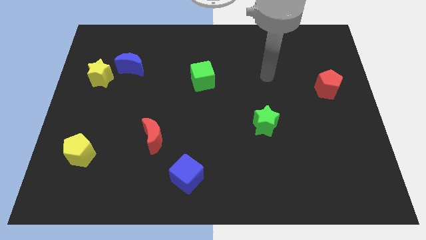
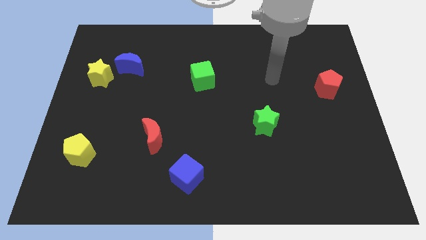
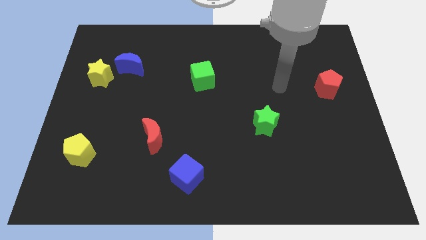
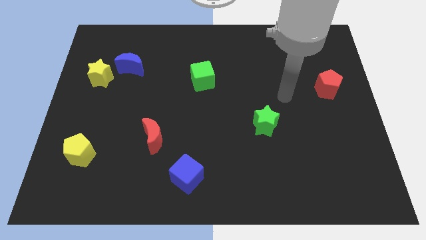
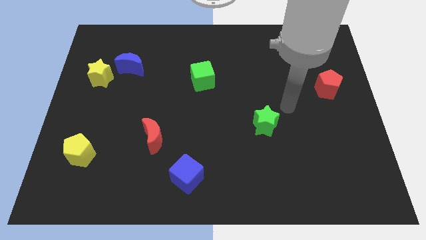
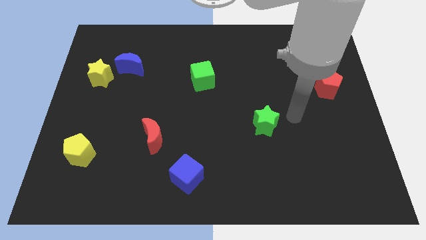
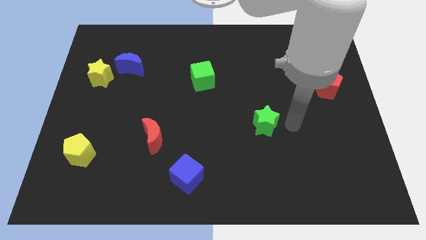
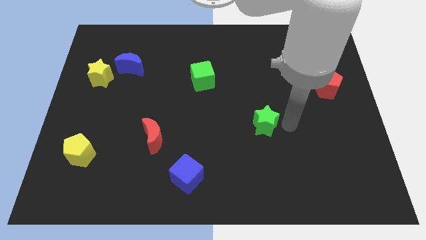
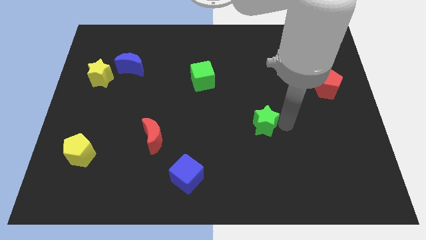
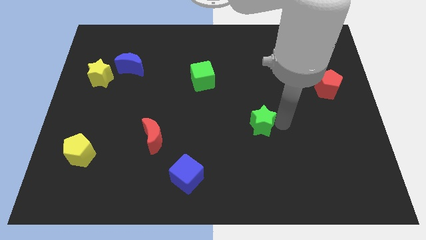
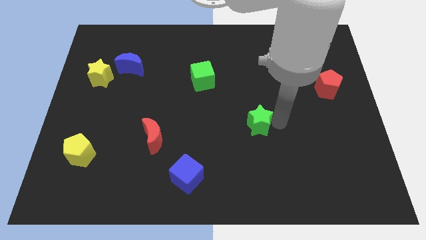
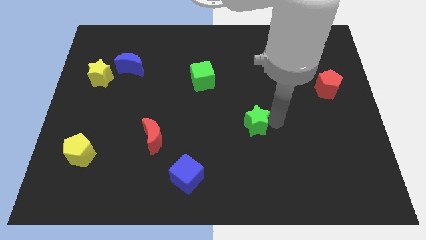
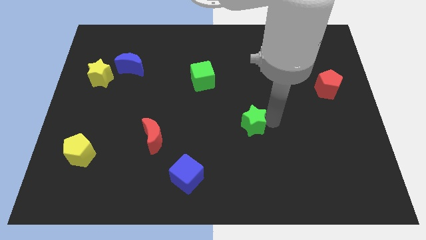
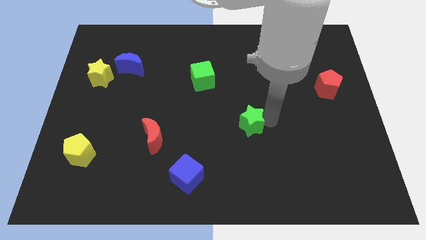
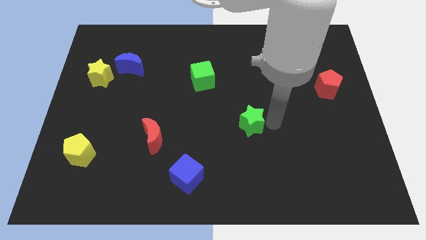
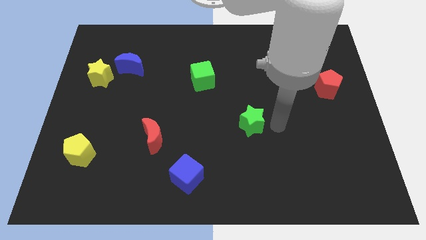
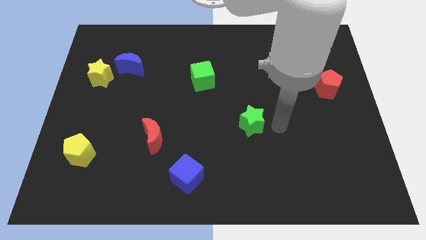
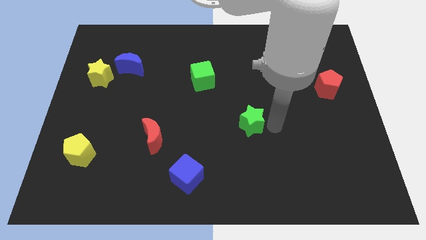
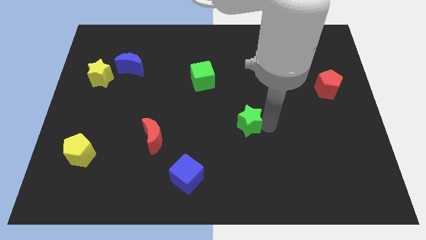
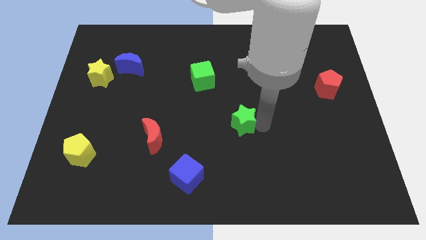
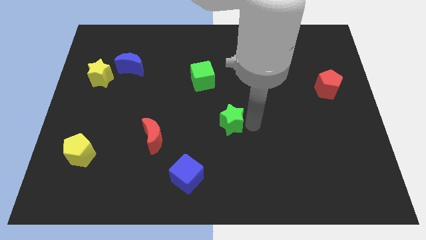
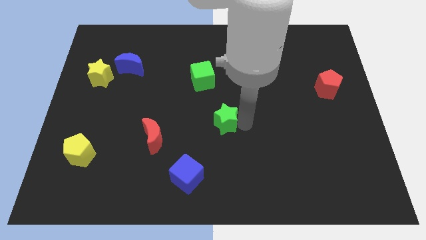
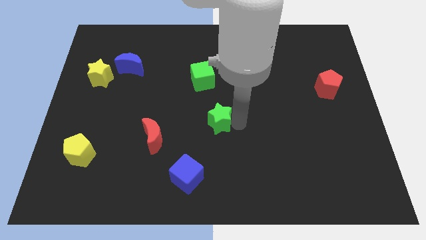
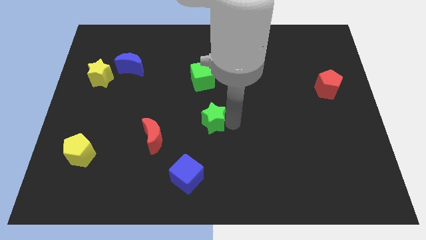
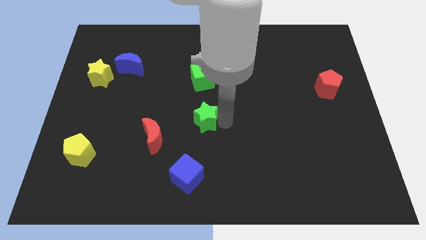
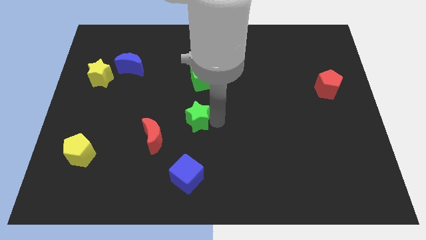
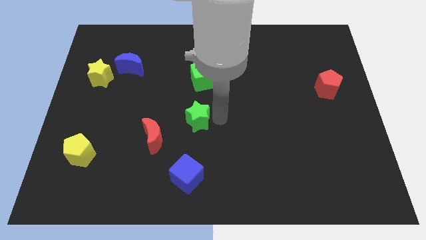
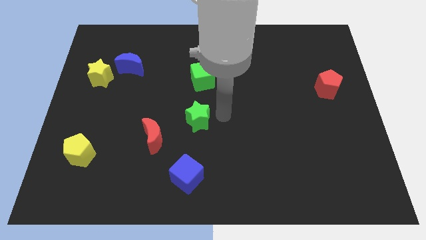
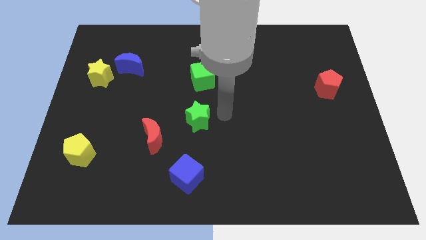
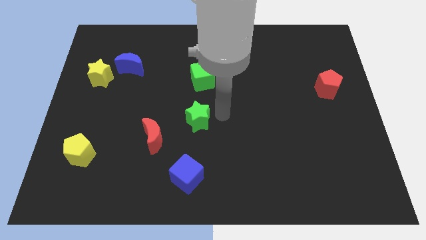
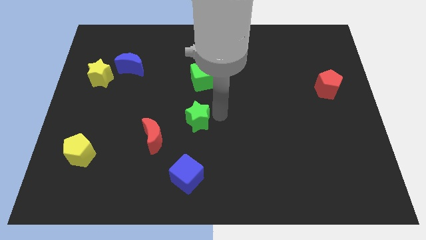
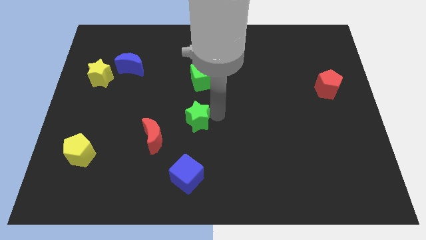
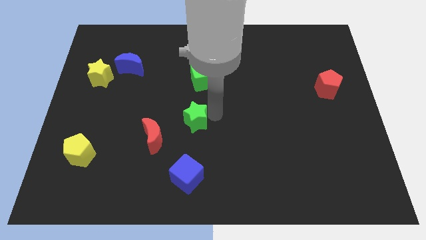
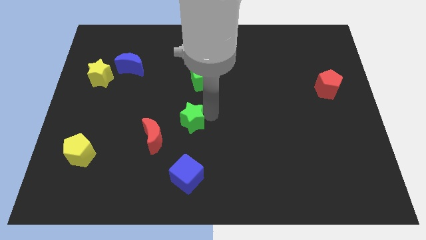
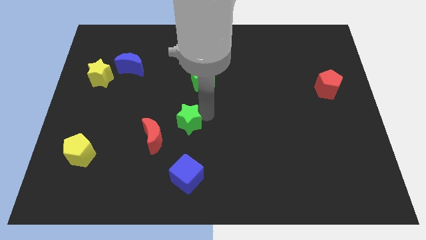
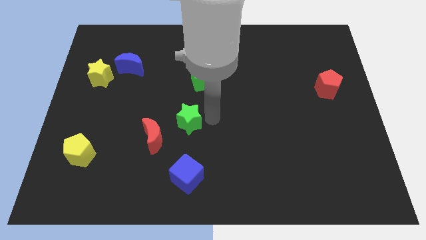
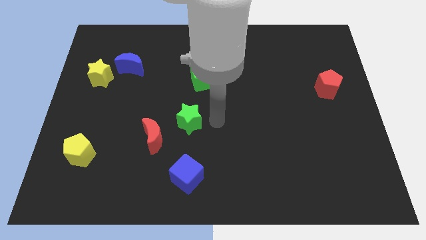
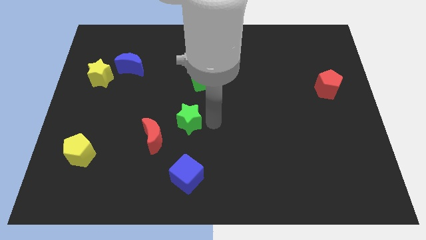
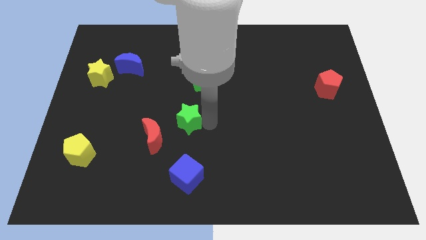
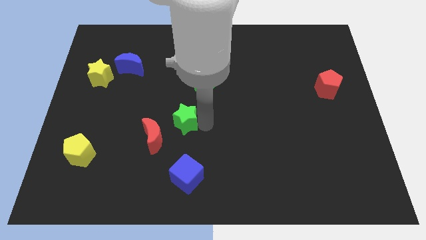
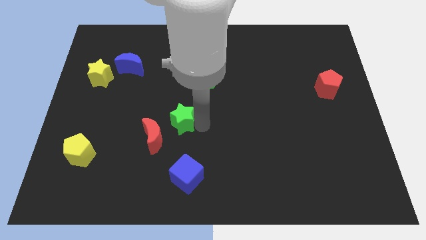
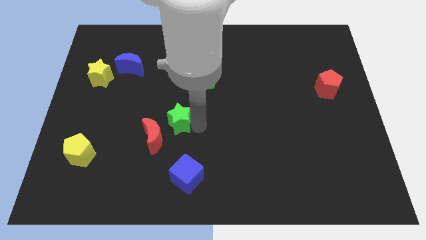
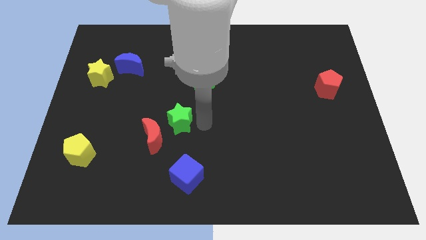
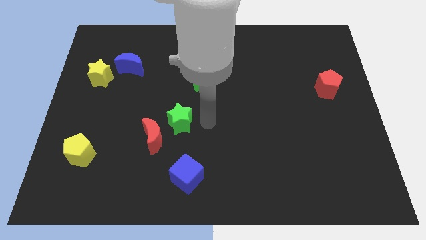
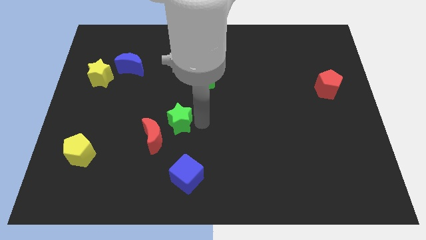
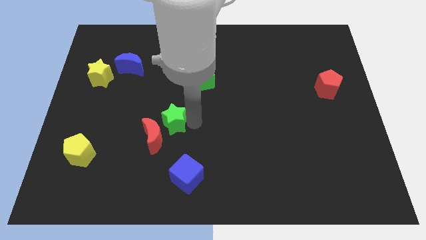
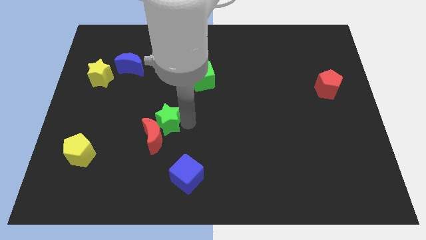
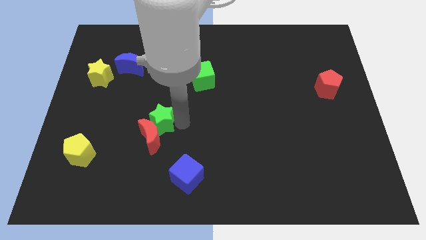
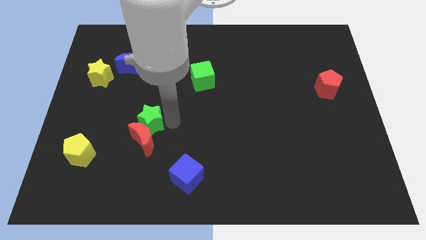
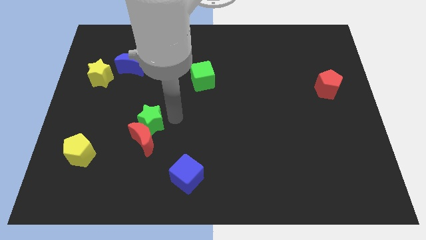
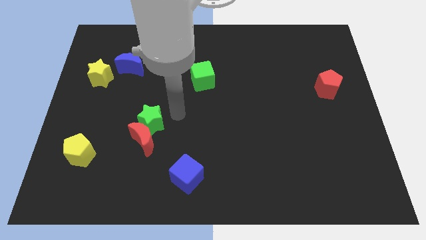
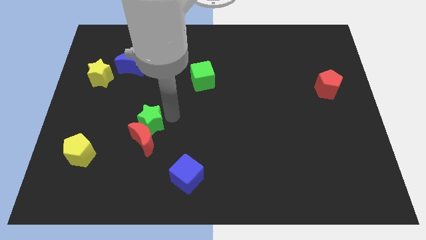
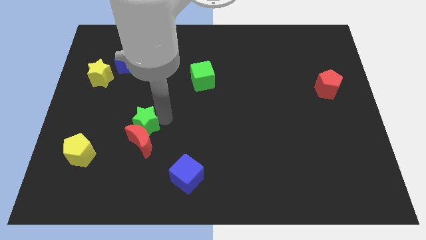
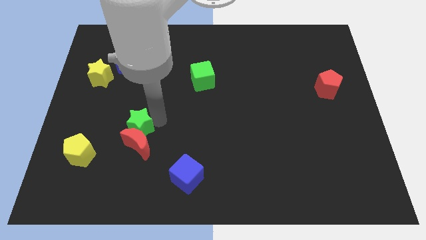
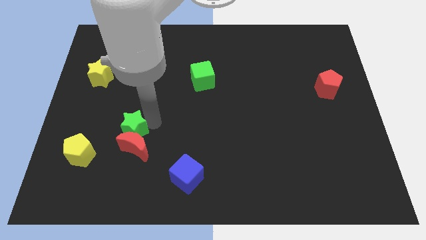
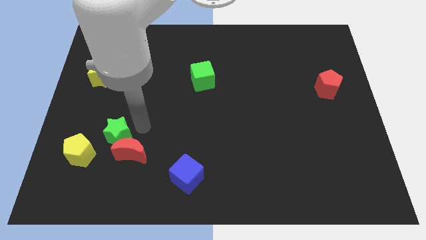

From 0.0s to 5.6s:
slide the green star left of the red moon

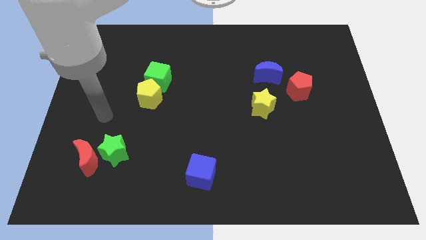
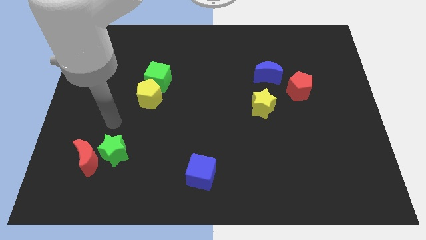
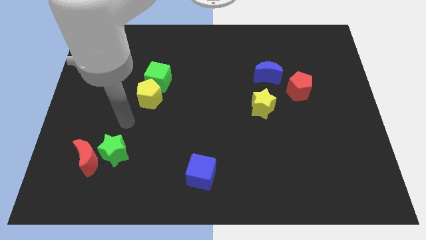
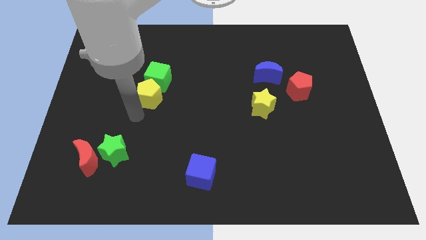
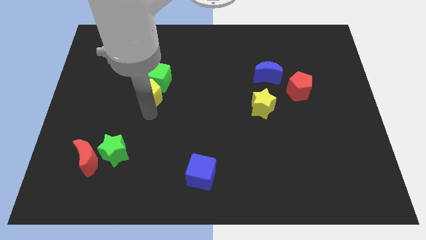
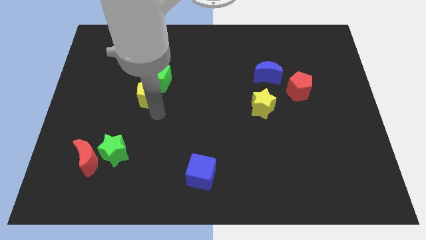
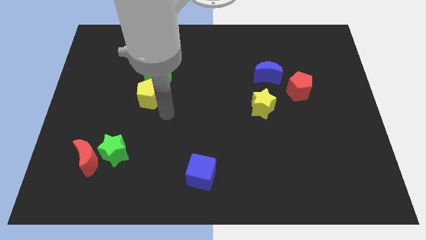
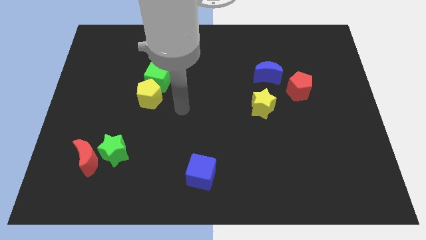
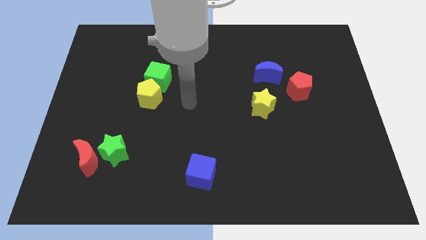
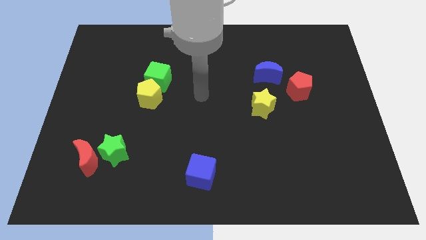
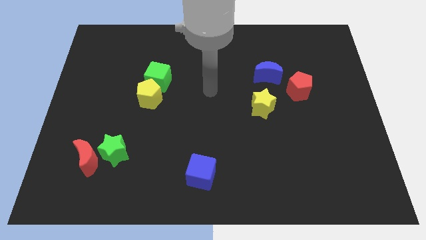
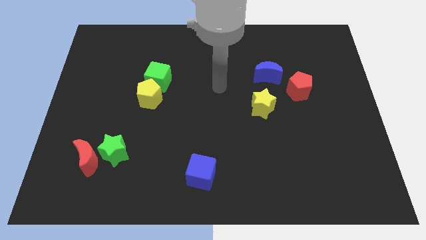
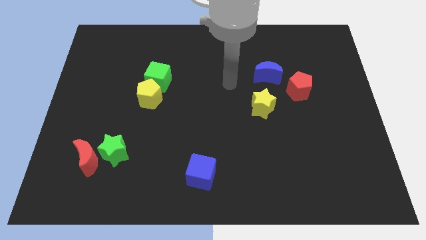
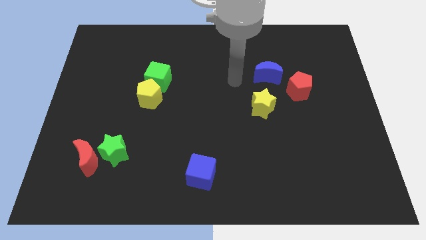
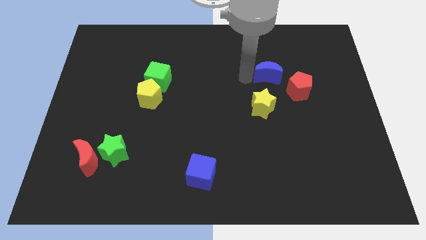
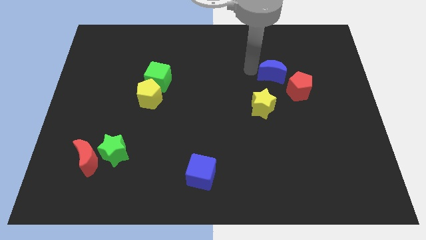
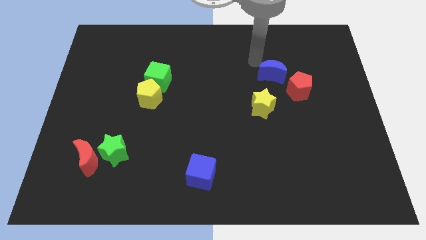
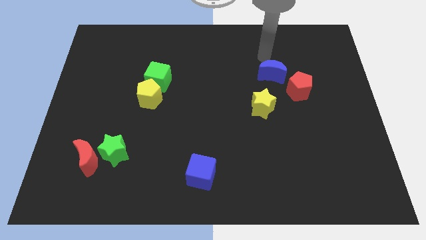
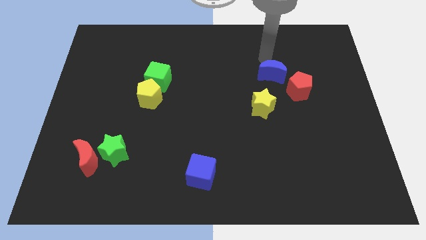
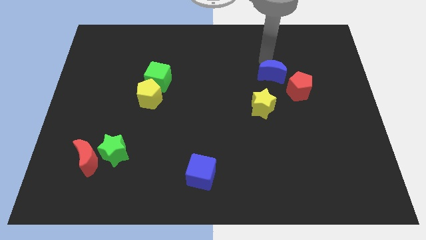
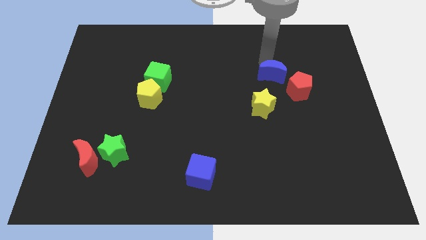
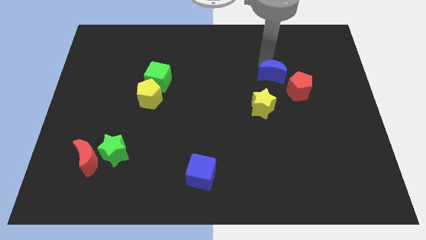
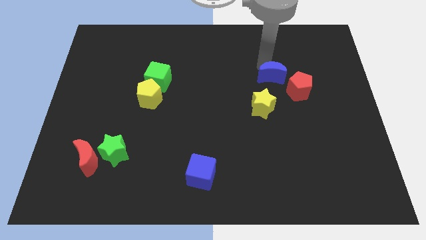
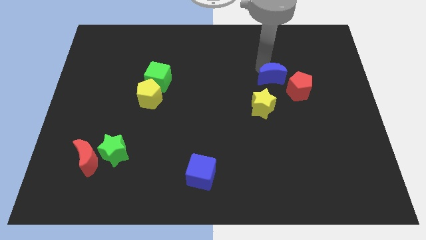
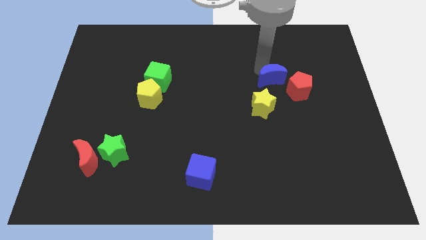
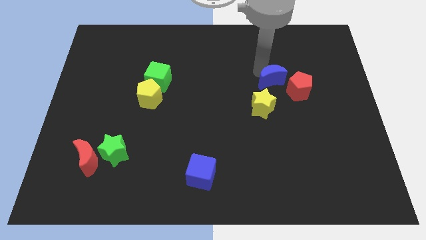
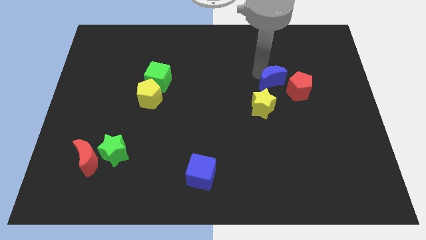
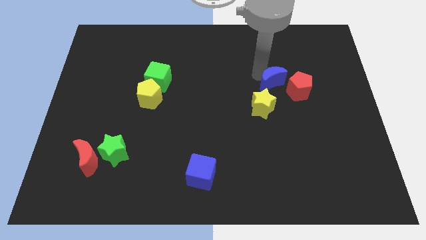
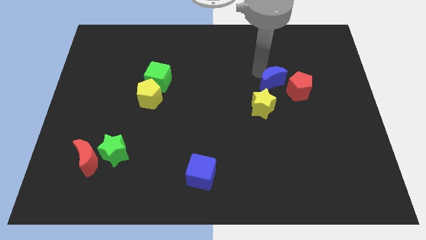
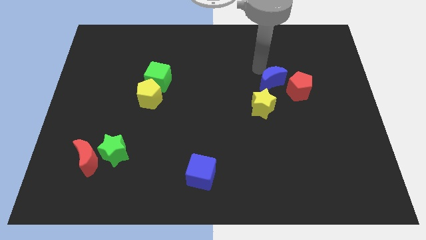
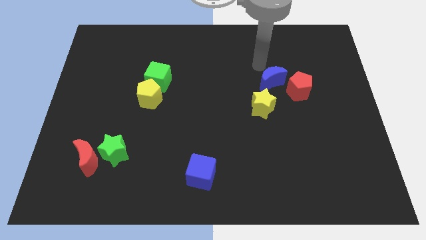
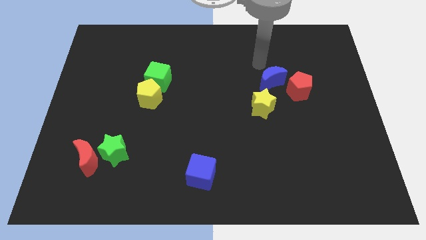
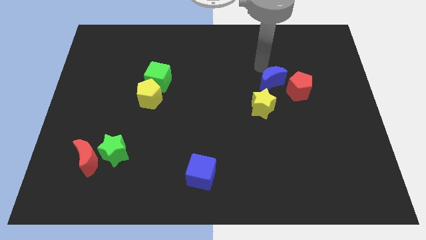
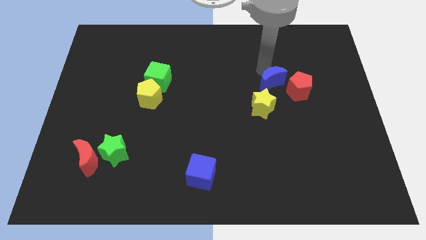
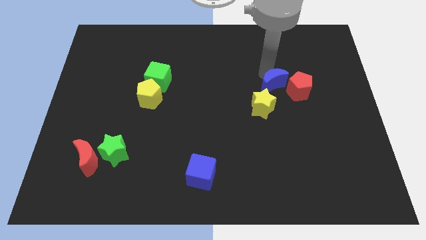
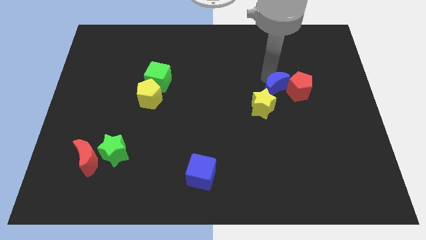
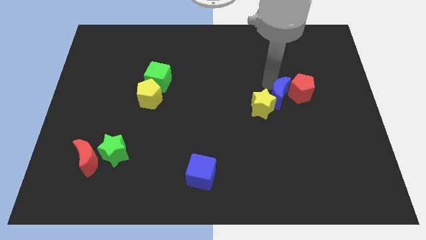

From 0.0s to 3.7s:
put the blue moon to the right of the yellow star
